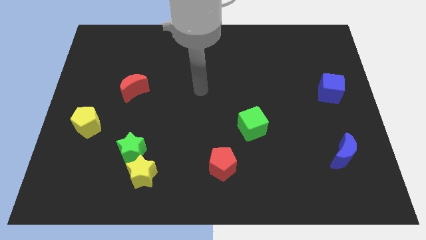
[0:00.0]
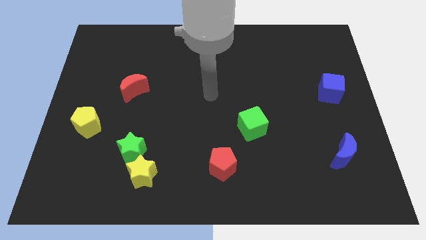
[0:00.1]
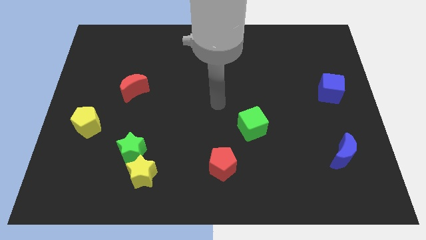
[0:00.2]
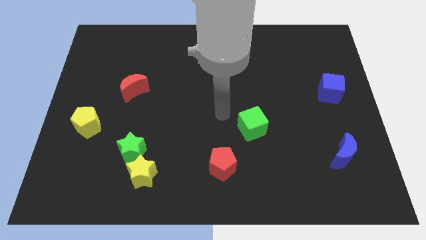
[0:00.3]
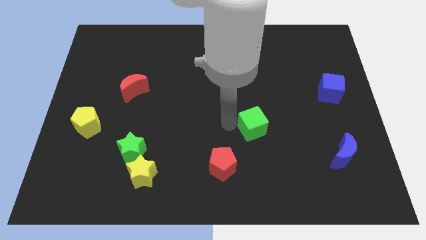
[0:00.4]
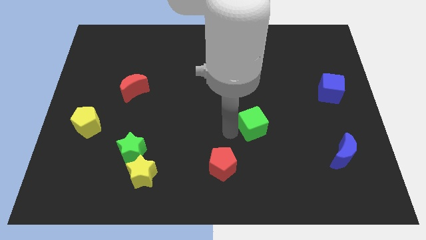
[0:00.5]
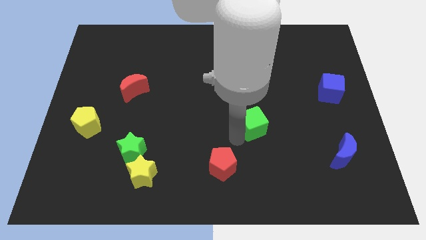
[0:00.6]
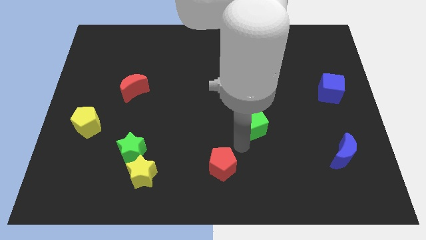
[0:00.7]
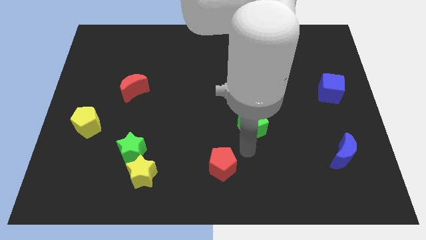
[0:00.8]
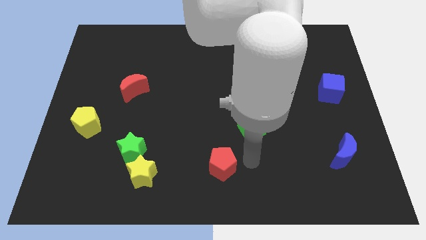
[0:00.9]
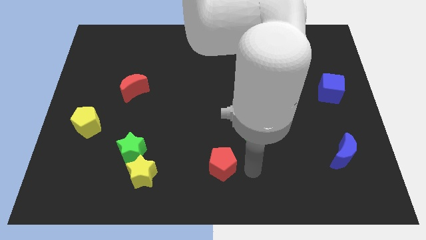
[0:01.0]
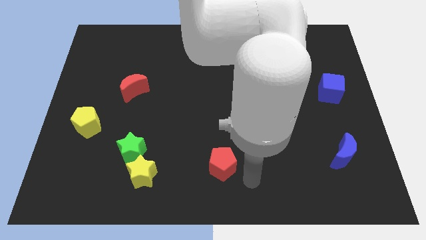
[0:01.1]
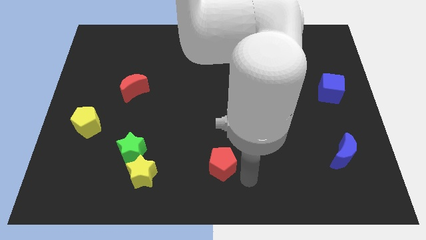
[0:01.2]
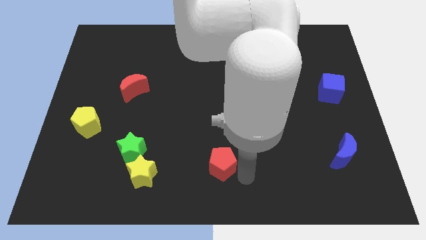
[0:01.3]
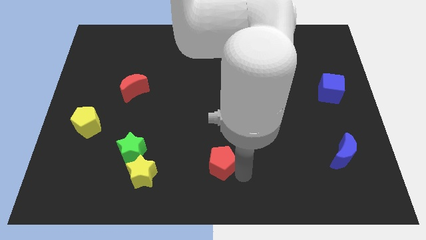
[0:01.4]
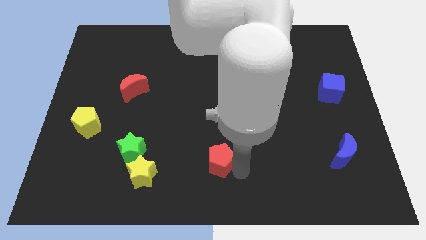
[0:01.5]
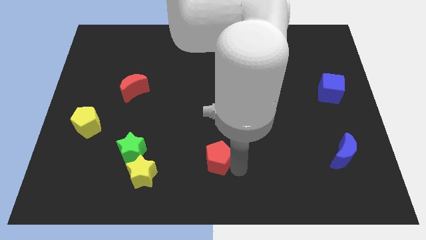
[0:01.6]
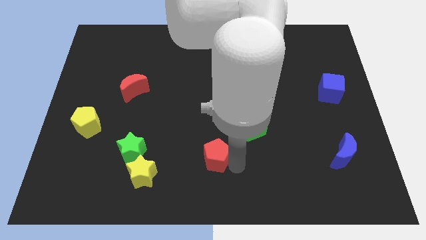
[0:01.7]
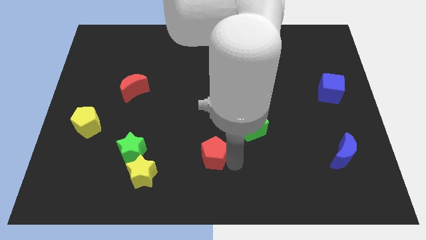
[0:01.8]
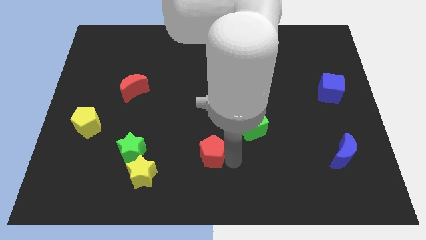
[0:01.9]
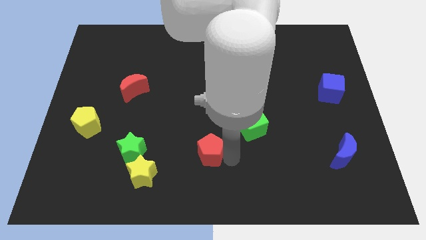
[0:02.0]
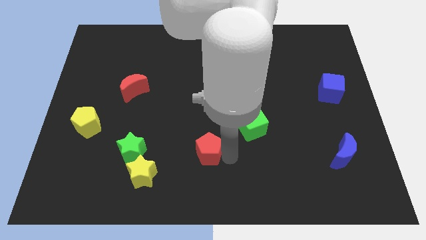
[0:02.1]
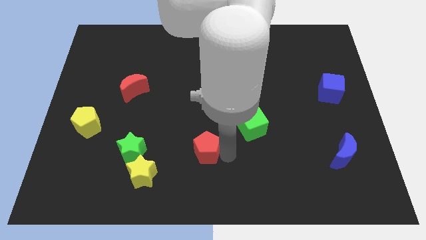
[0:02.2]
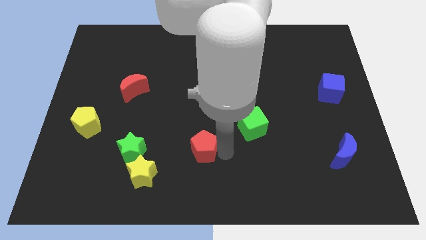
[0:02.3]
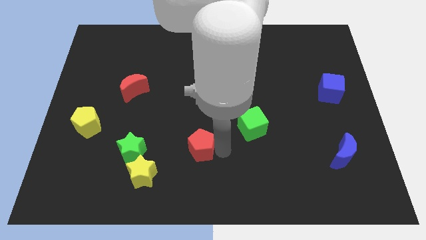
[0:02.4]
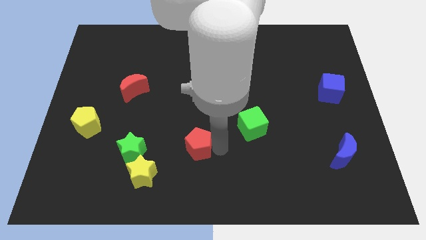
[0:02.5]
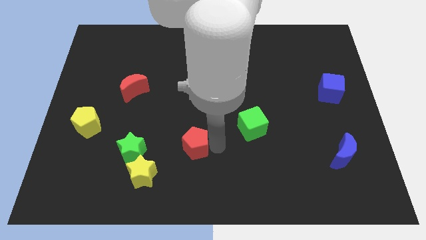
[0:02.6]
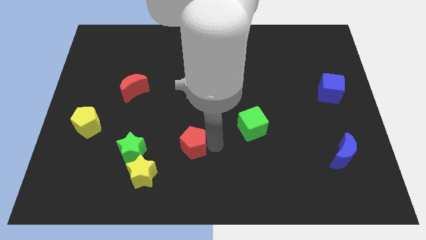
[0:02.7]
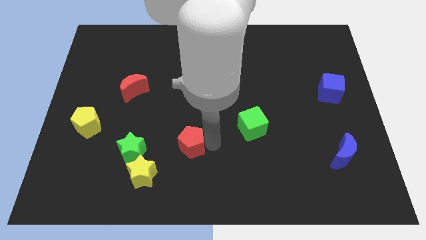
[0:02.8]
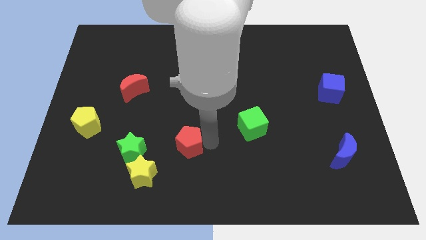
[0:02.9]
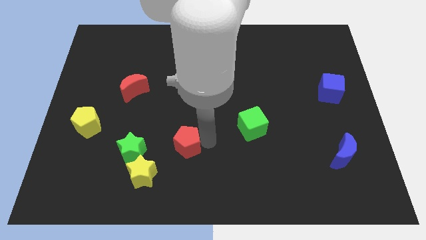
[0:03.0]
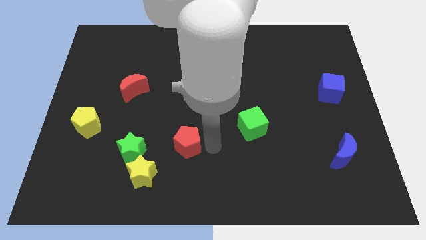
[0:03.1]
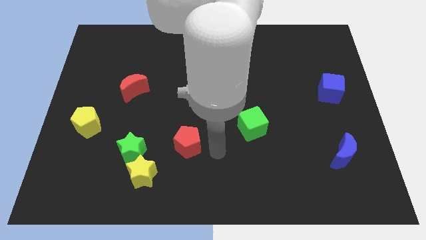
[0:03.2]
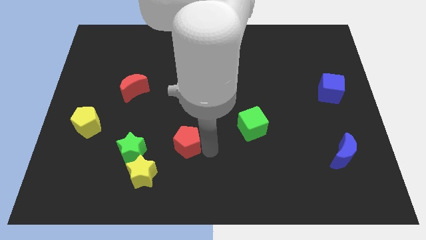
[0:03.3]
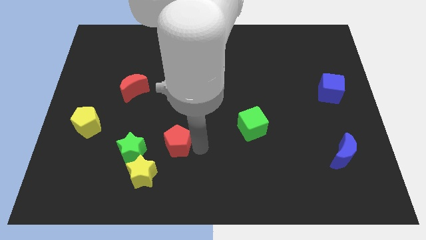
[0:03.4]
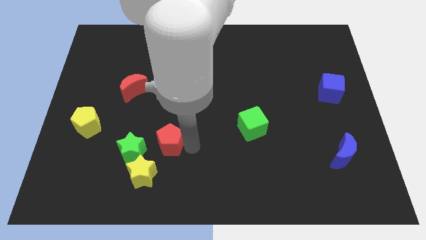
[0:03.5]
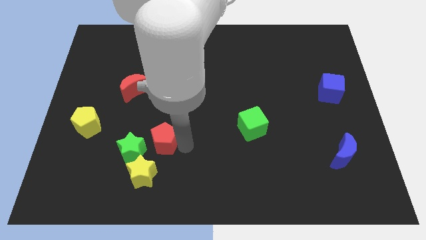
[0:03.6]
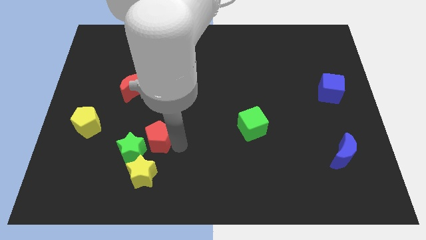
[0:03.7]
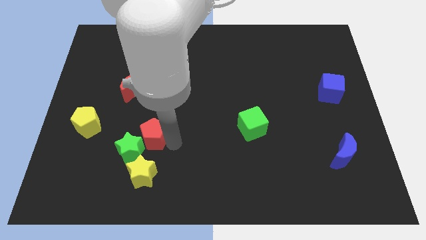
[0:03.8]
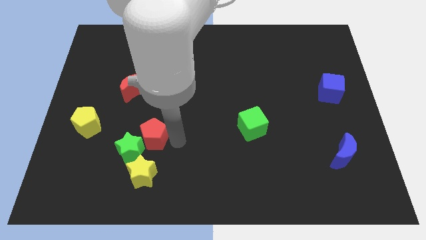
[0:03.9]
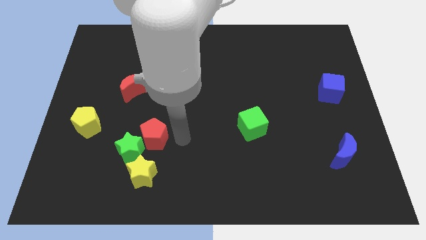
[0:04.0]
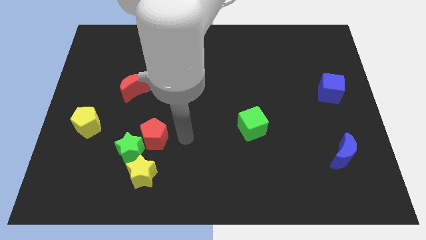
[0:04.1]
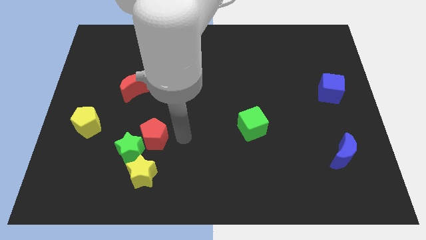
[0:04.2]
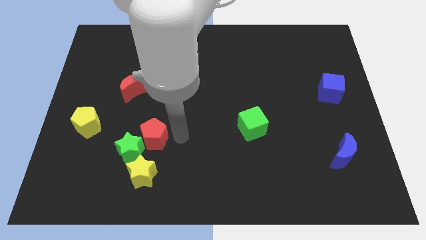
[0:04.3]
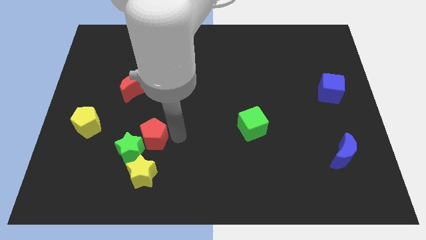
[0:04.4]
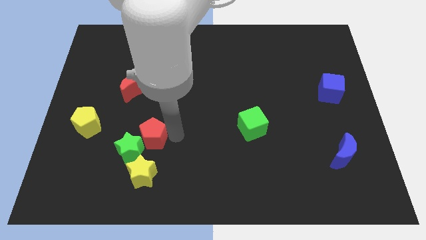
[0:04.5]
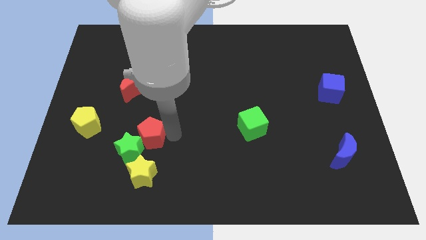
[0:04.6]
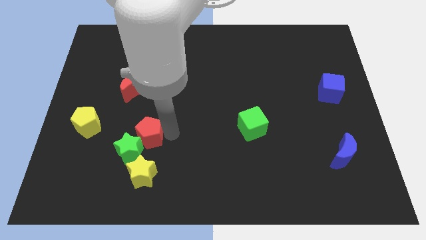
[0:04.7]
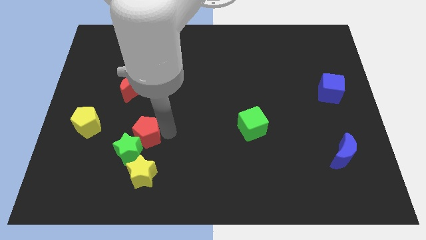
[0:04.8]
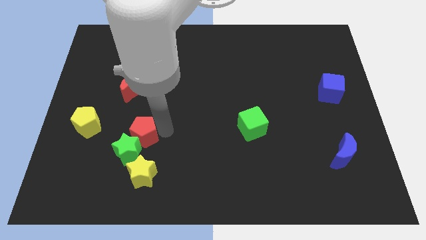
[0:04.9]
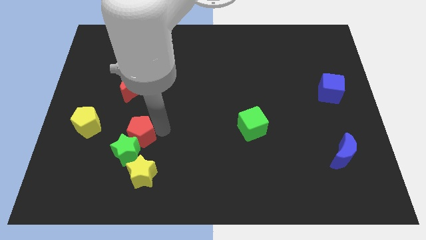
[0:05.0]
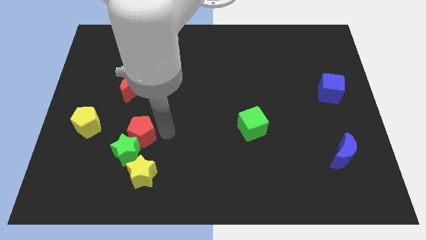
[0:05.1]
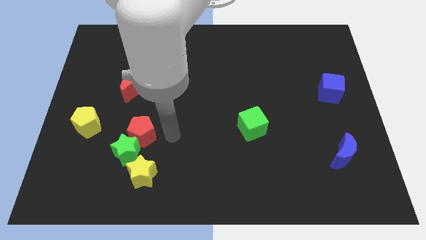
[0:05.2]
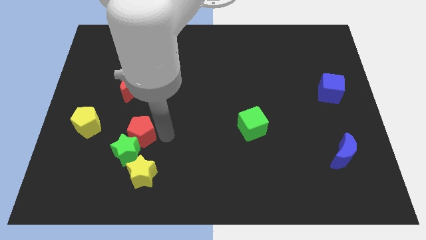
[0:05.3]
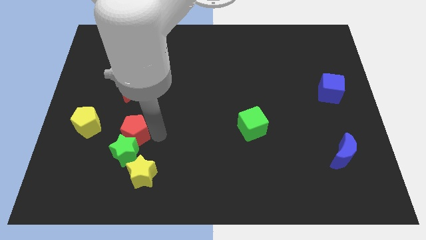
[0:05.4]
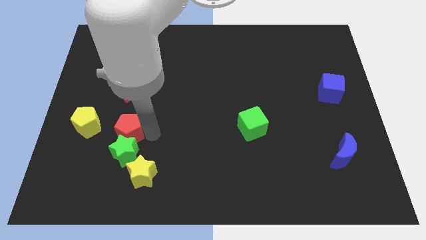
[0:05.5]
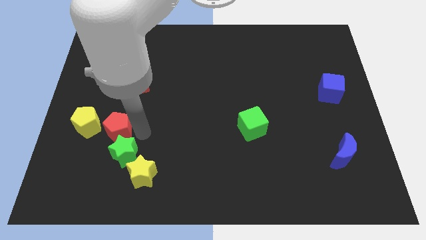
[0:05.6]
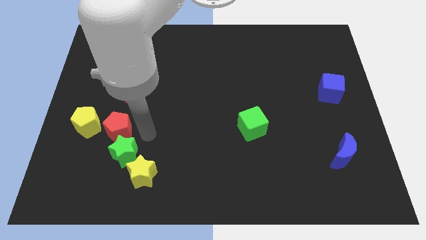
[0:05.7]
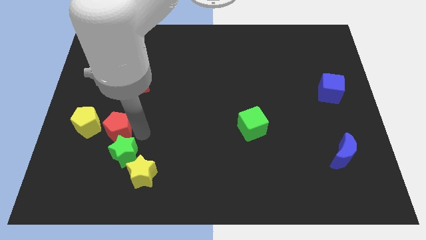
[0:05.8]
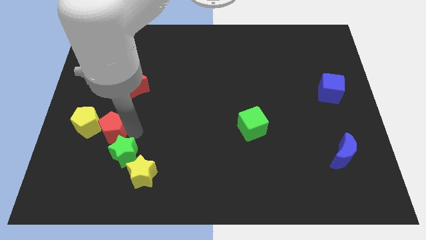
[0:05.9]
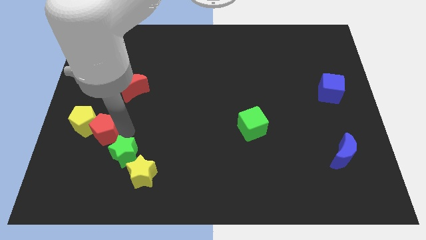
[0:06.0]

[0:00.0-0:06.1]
move the red pentagon next to the yellow pentagon
